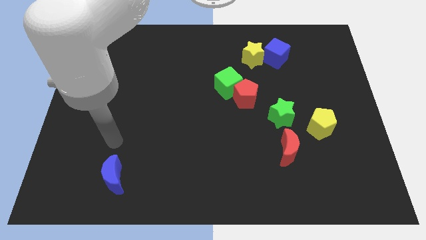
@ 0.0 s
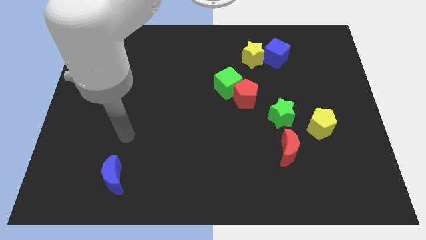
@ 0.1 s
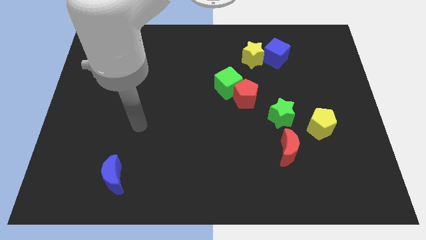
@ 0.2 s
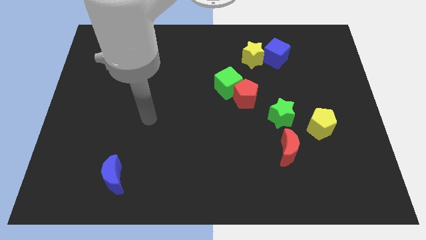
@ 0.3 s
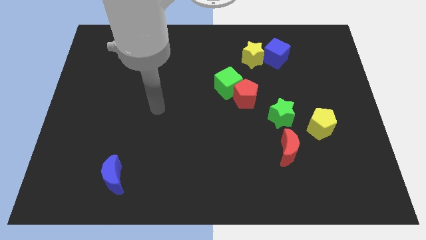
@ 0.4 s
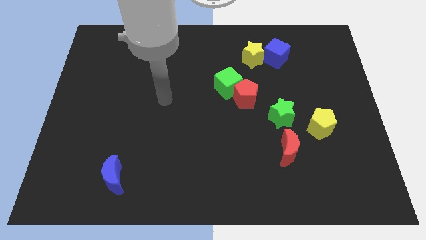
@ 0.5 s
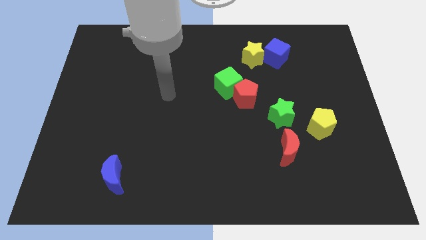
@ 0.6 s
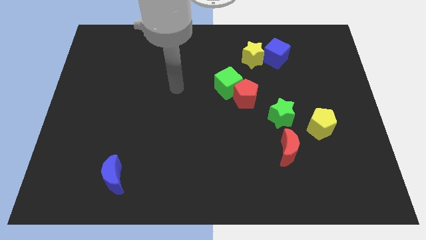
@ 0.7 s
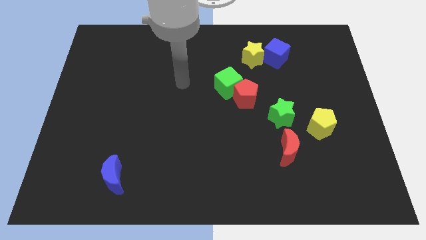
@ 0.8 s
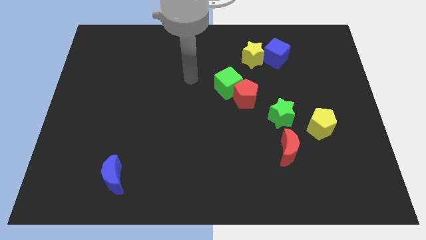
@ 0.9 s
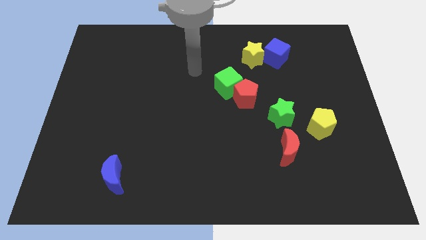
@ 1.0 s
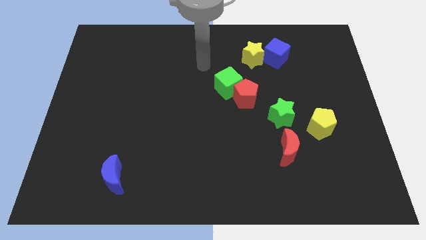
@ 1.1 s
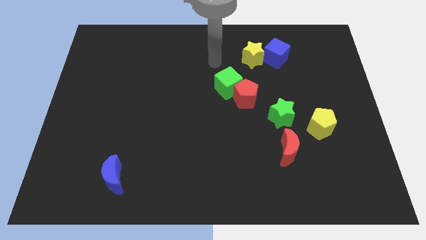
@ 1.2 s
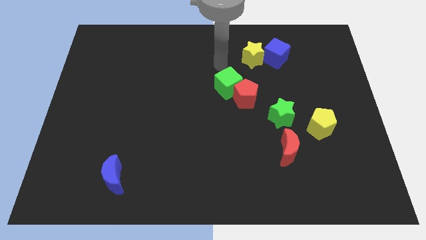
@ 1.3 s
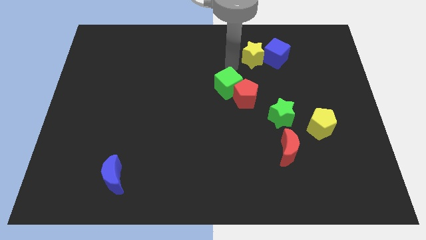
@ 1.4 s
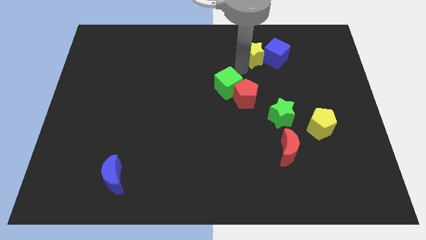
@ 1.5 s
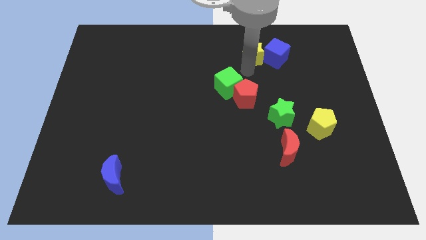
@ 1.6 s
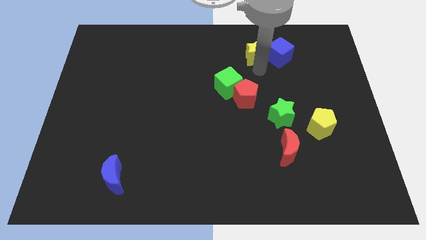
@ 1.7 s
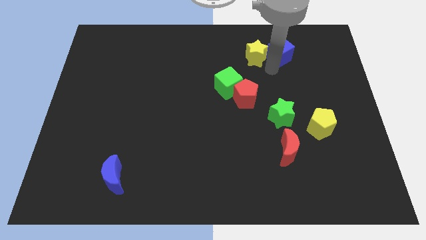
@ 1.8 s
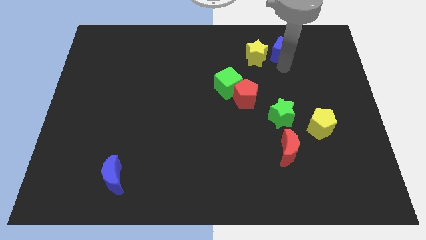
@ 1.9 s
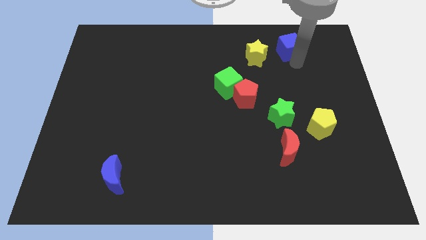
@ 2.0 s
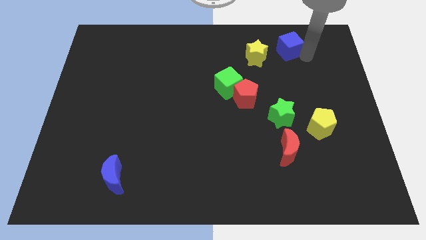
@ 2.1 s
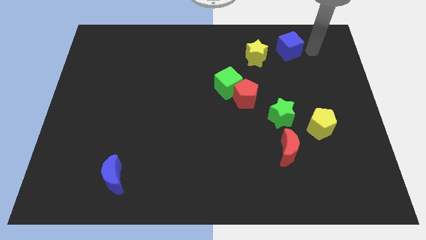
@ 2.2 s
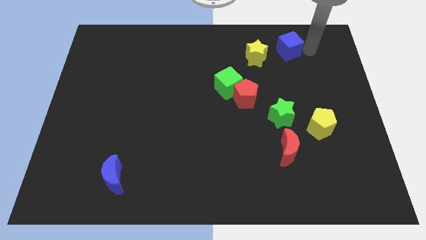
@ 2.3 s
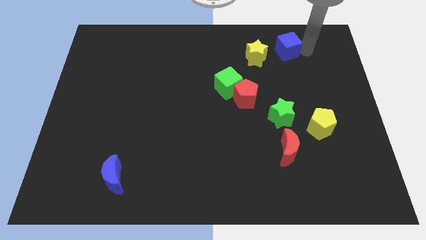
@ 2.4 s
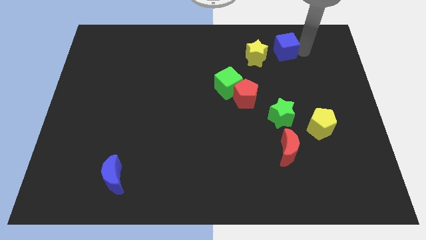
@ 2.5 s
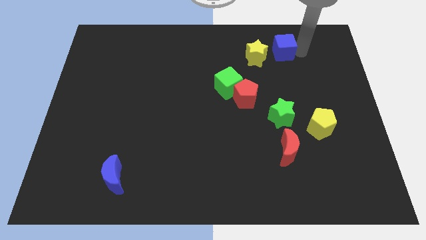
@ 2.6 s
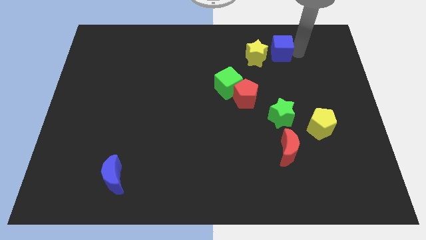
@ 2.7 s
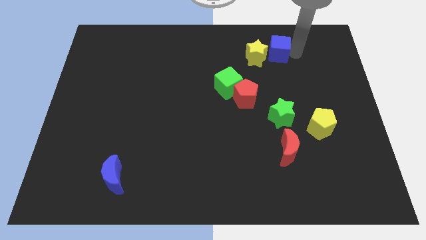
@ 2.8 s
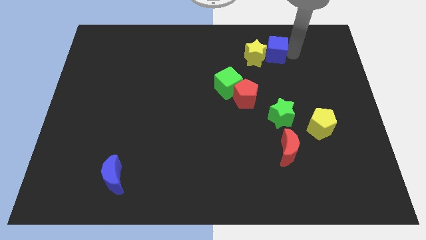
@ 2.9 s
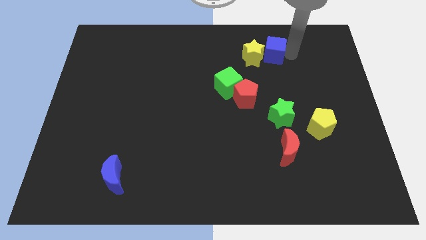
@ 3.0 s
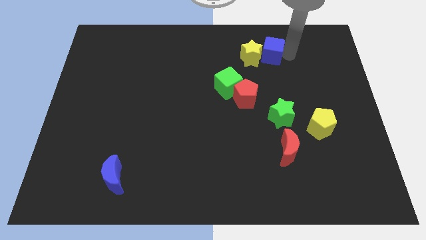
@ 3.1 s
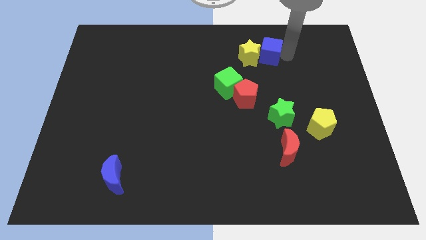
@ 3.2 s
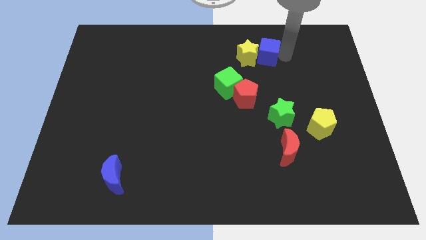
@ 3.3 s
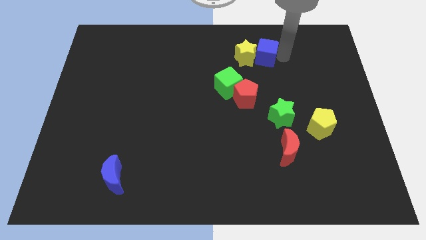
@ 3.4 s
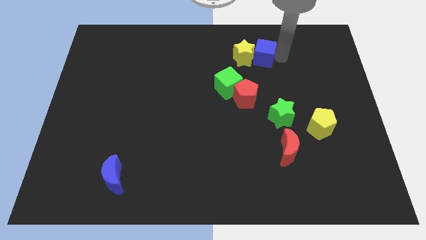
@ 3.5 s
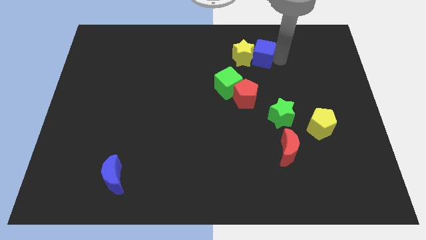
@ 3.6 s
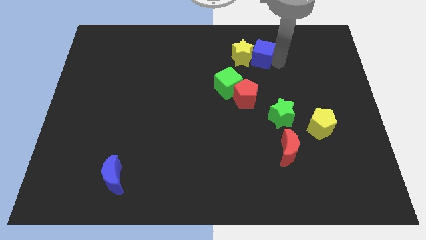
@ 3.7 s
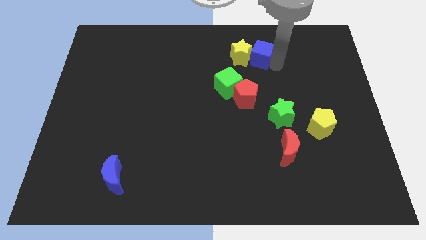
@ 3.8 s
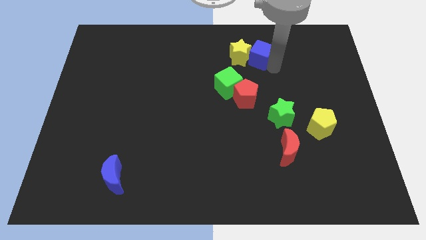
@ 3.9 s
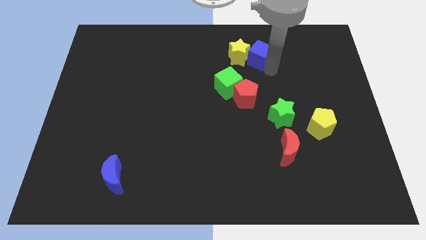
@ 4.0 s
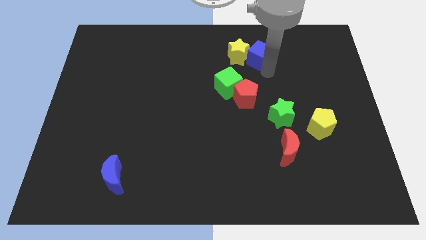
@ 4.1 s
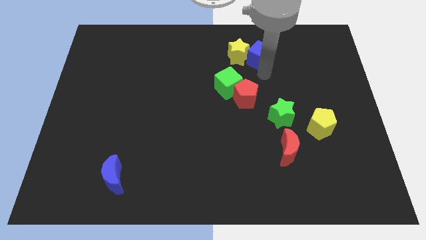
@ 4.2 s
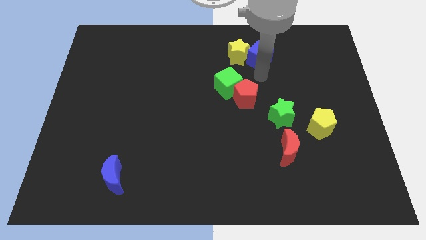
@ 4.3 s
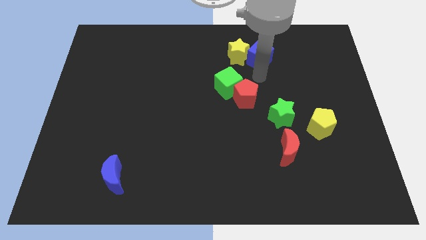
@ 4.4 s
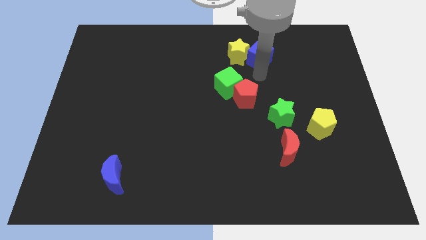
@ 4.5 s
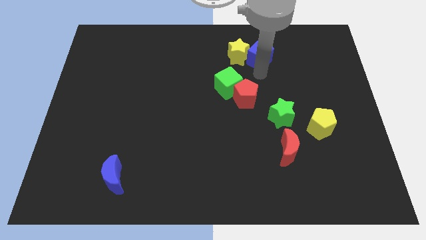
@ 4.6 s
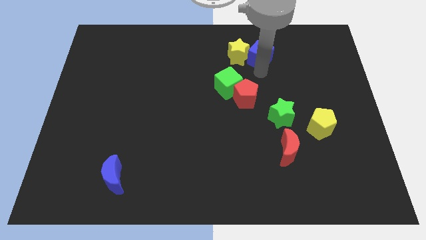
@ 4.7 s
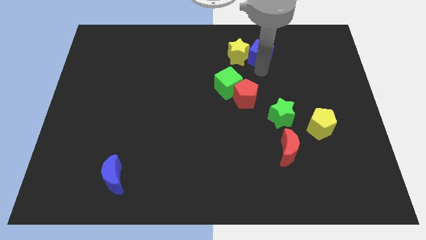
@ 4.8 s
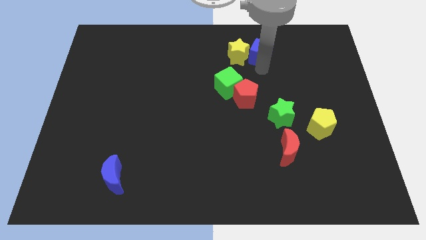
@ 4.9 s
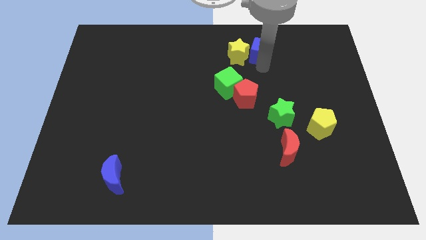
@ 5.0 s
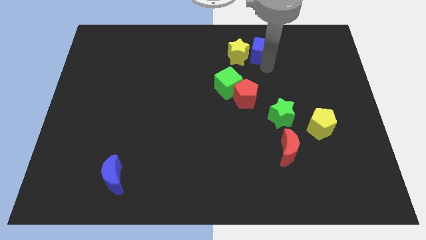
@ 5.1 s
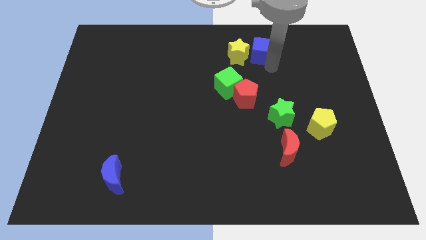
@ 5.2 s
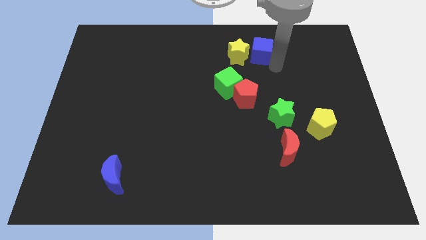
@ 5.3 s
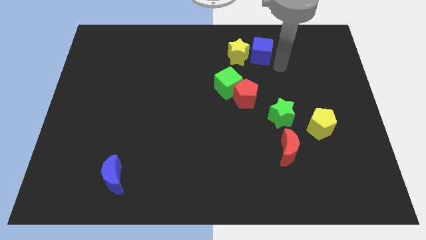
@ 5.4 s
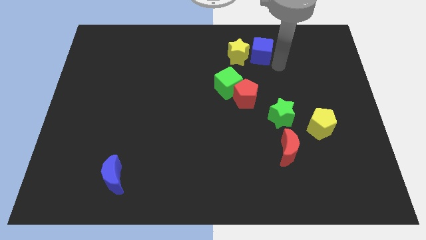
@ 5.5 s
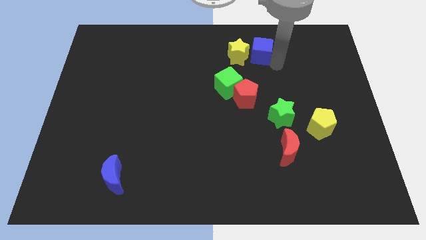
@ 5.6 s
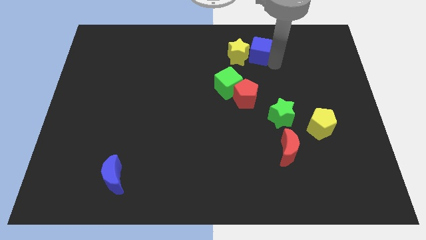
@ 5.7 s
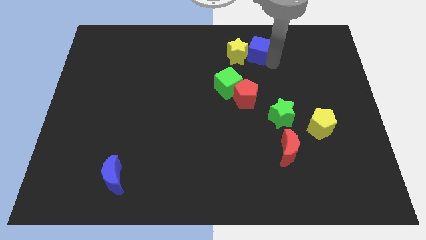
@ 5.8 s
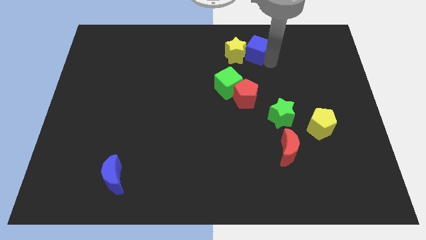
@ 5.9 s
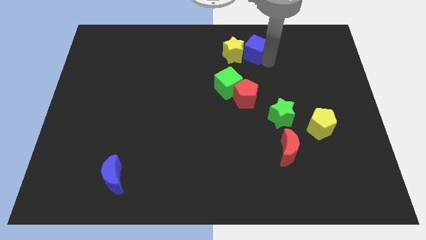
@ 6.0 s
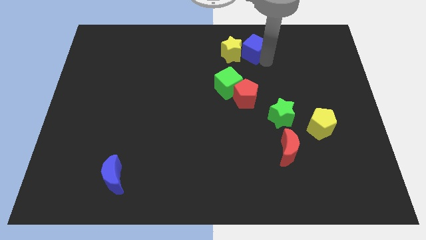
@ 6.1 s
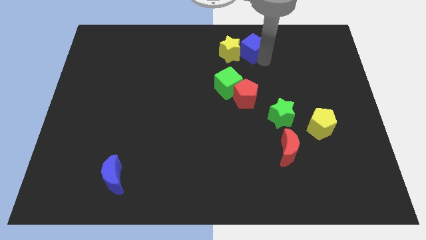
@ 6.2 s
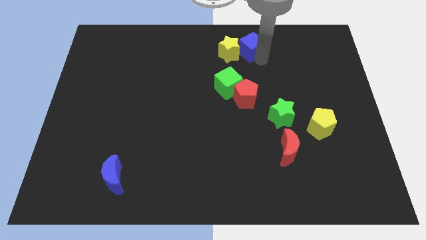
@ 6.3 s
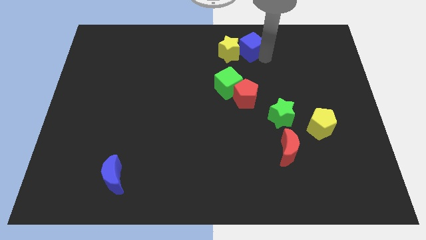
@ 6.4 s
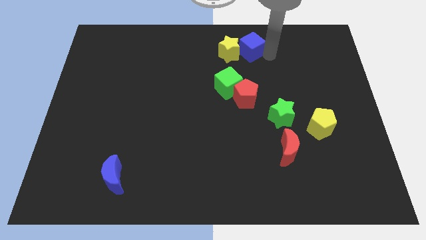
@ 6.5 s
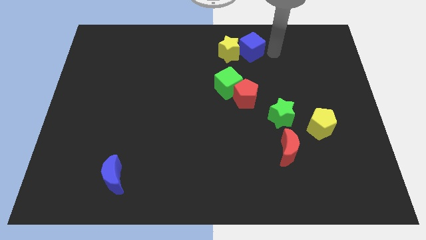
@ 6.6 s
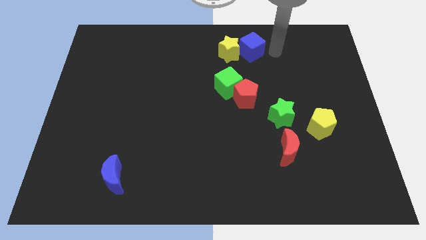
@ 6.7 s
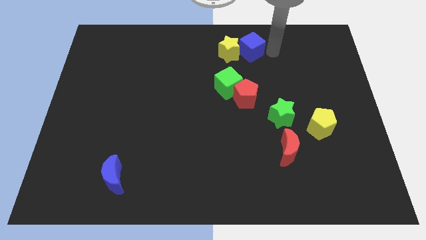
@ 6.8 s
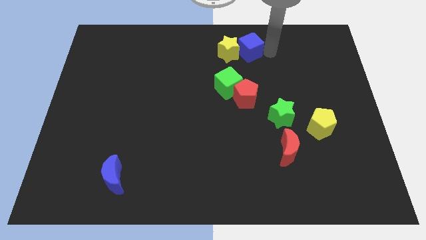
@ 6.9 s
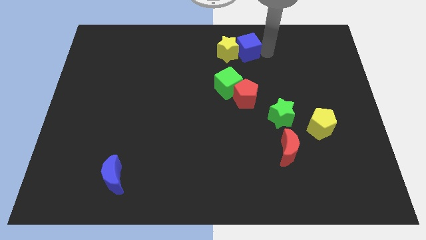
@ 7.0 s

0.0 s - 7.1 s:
move the blue cube to the left somewhat

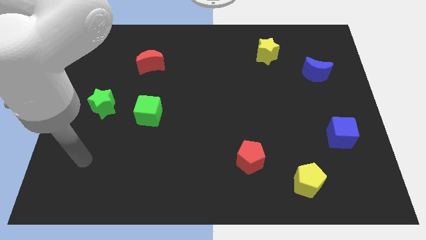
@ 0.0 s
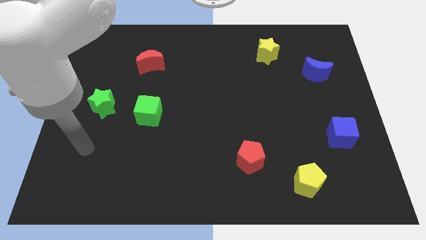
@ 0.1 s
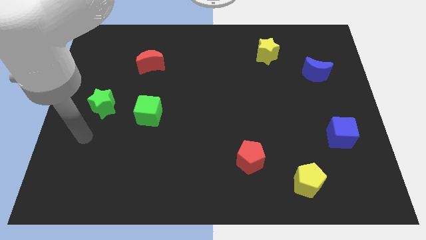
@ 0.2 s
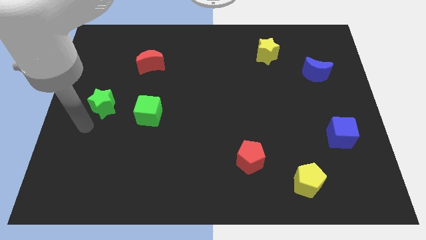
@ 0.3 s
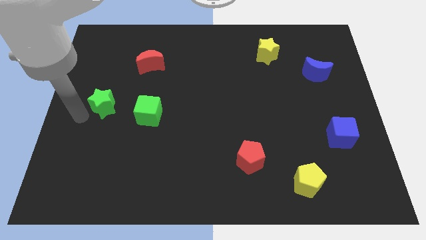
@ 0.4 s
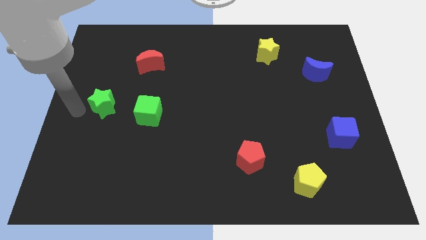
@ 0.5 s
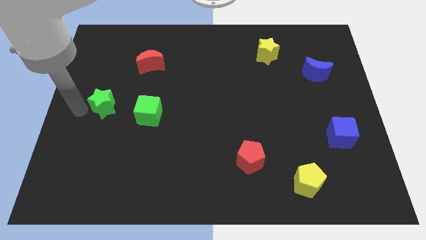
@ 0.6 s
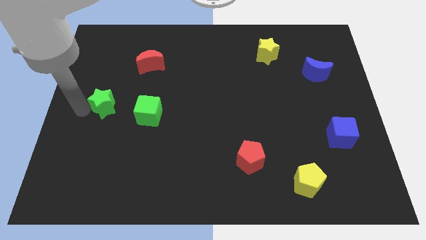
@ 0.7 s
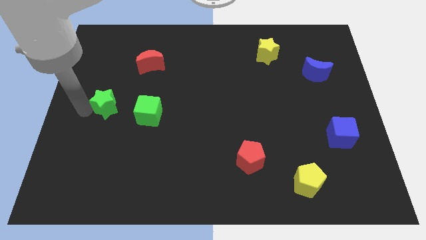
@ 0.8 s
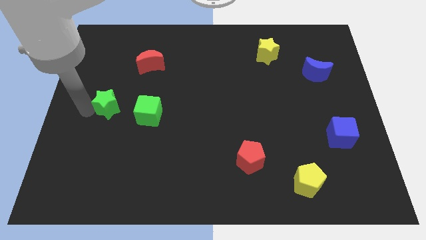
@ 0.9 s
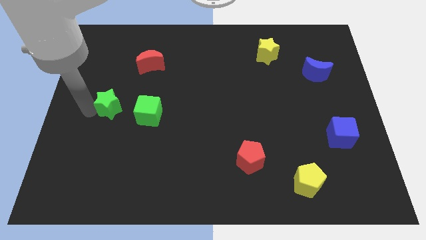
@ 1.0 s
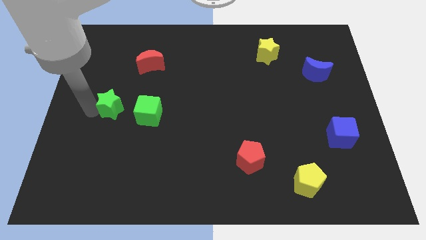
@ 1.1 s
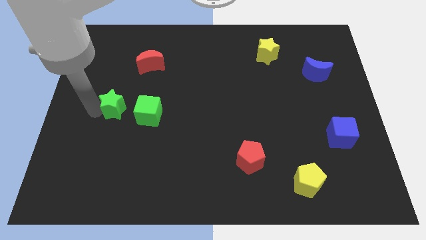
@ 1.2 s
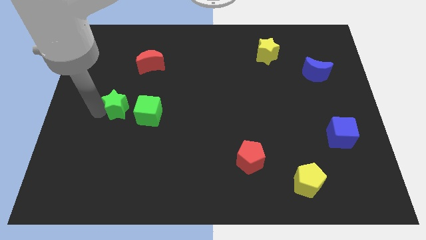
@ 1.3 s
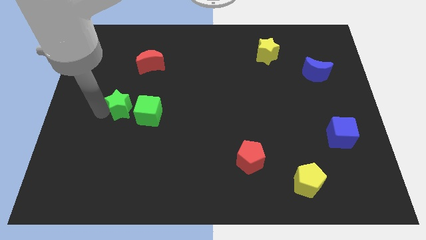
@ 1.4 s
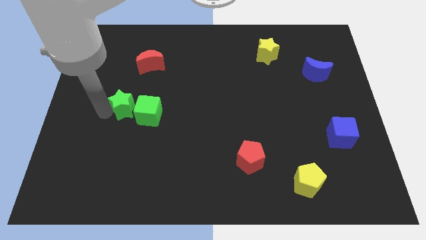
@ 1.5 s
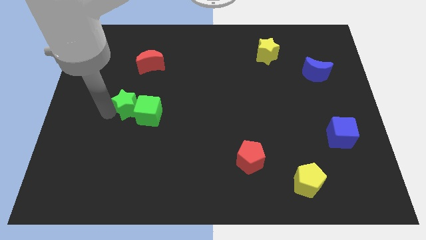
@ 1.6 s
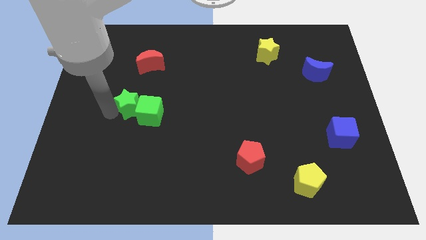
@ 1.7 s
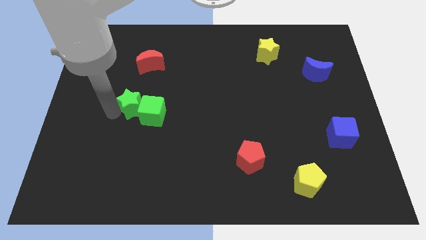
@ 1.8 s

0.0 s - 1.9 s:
push the green star slightly to the right
